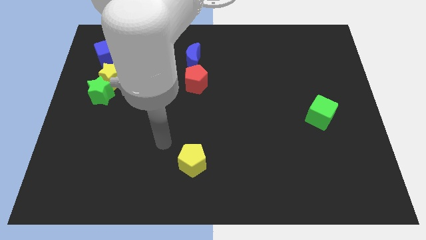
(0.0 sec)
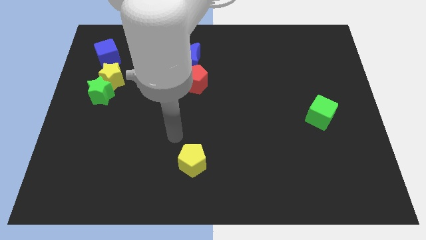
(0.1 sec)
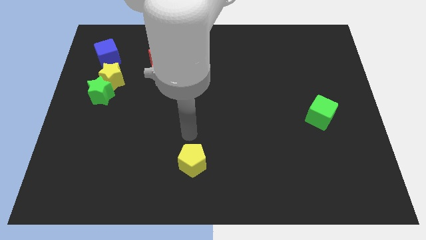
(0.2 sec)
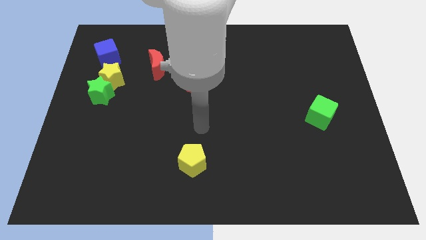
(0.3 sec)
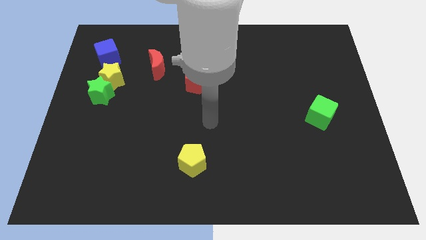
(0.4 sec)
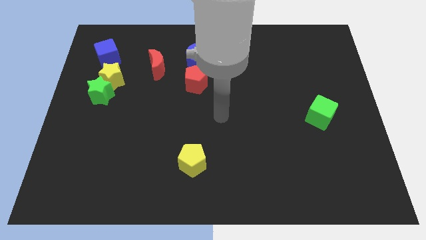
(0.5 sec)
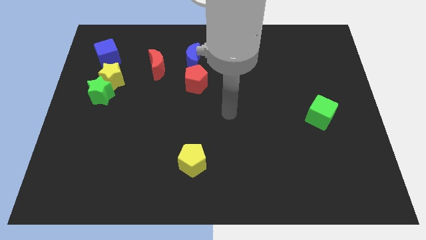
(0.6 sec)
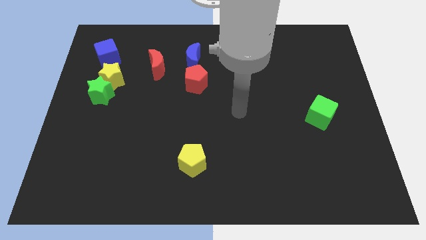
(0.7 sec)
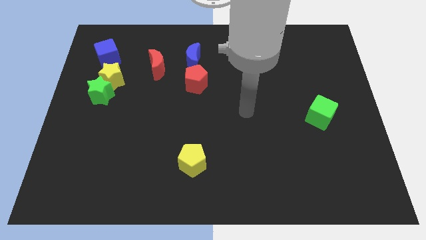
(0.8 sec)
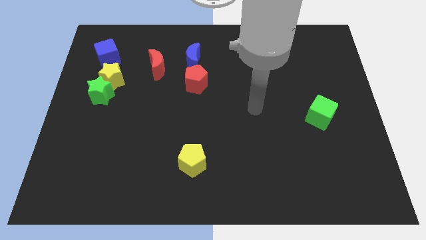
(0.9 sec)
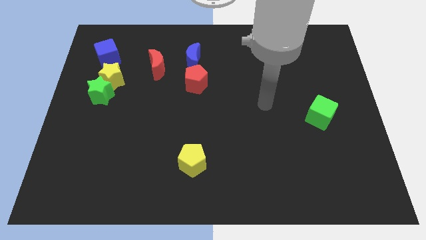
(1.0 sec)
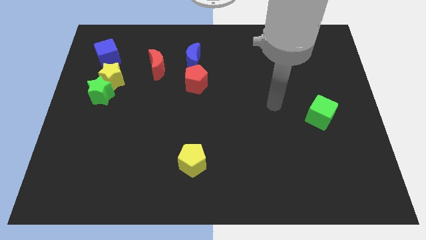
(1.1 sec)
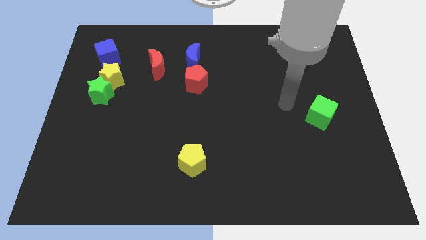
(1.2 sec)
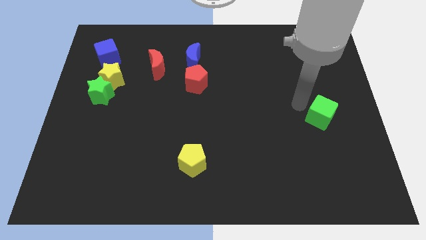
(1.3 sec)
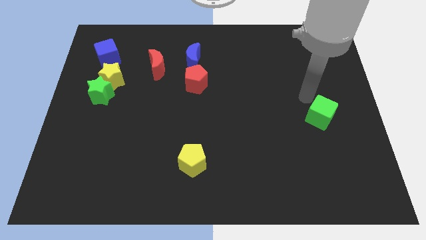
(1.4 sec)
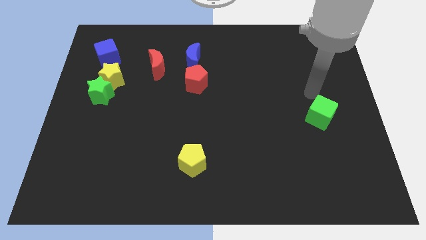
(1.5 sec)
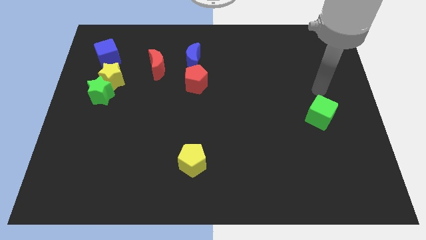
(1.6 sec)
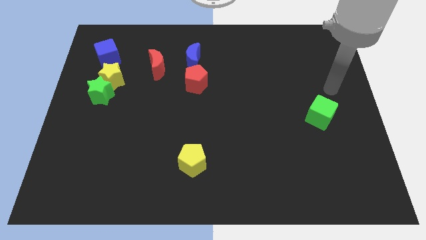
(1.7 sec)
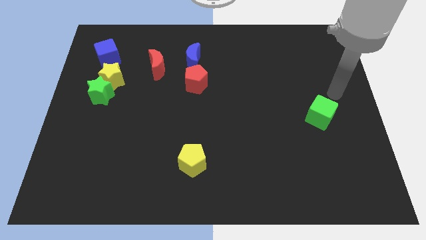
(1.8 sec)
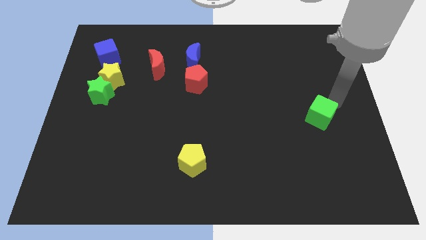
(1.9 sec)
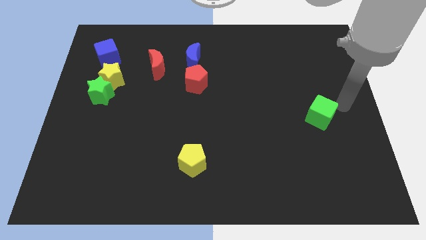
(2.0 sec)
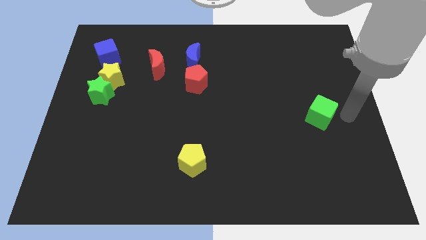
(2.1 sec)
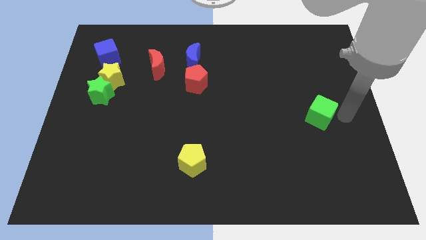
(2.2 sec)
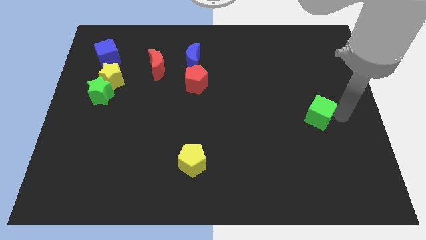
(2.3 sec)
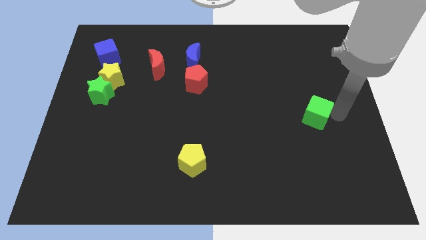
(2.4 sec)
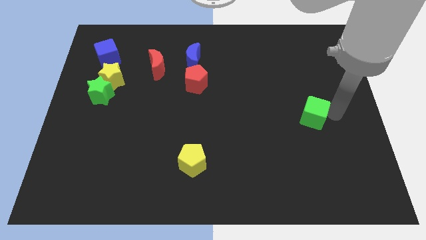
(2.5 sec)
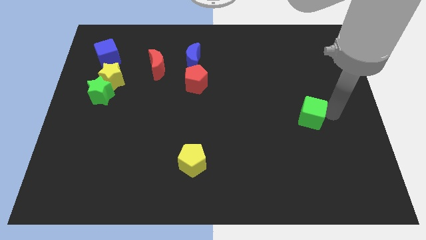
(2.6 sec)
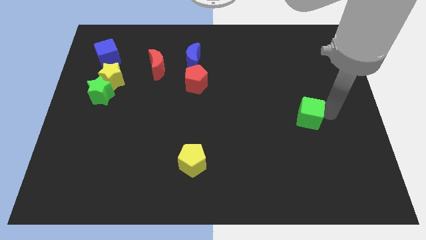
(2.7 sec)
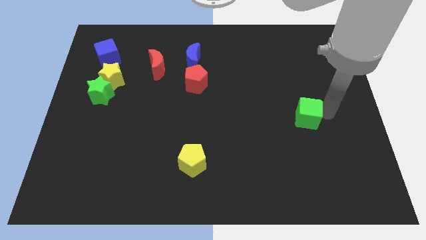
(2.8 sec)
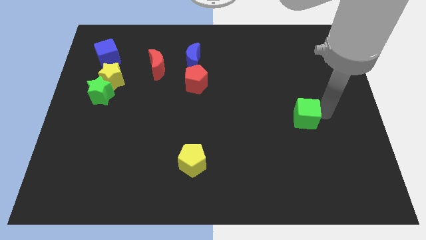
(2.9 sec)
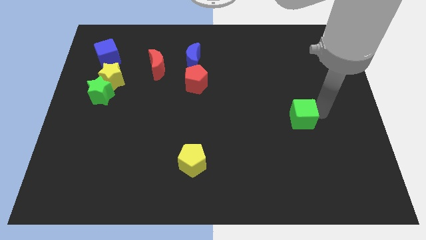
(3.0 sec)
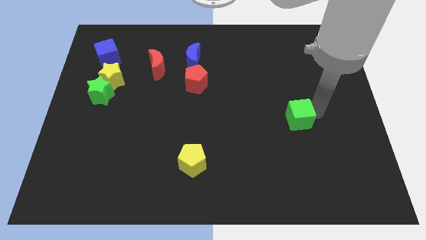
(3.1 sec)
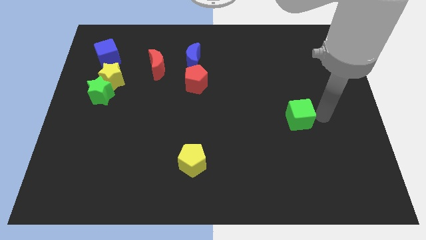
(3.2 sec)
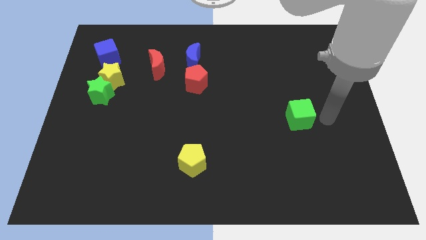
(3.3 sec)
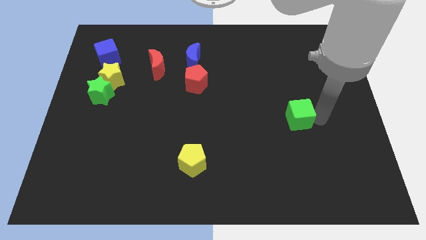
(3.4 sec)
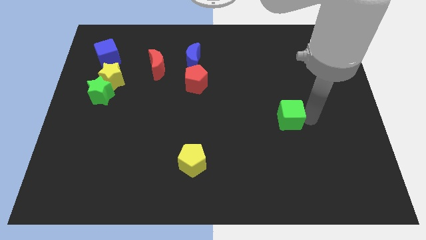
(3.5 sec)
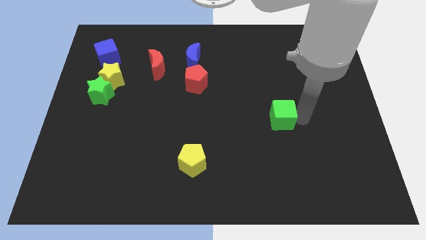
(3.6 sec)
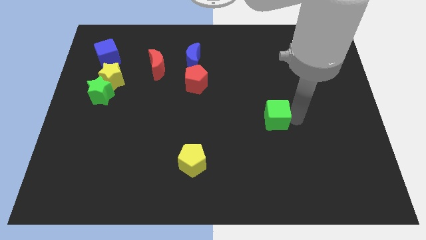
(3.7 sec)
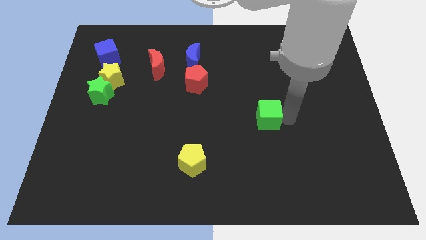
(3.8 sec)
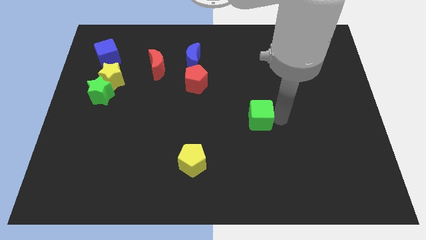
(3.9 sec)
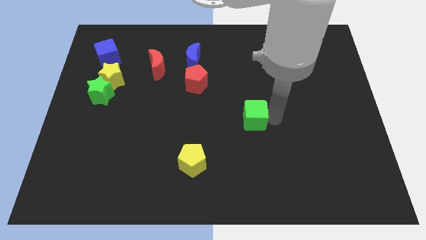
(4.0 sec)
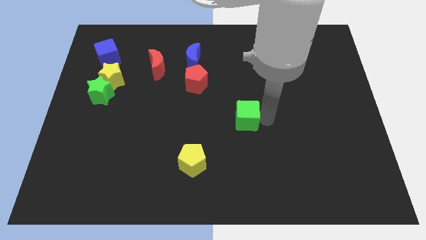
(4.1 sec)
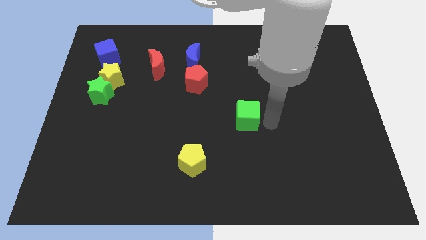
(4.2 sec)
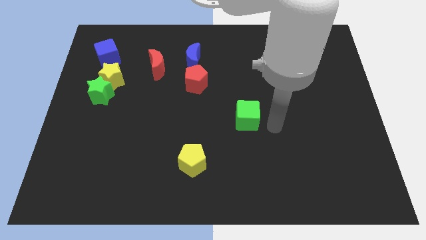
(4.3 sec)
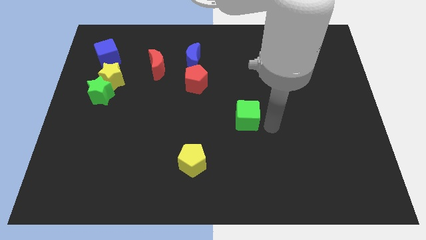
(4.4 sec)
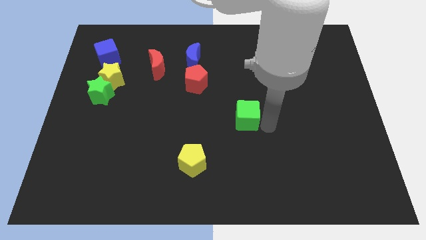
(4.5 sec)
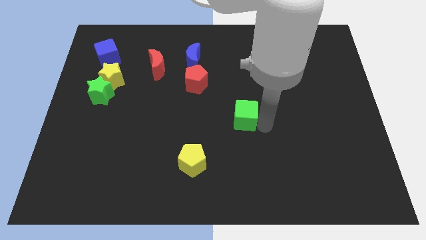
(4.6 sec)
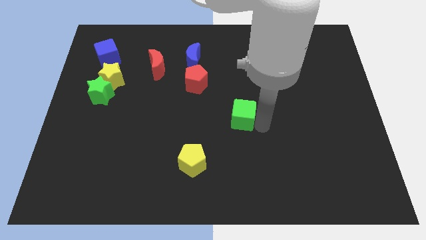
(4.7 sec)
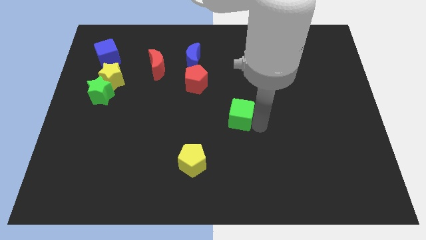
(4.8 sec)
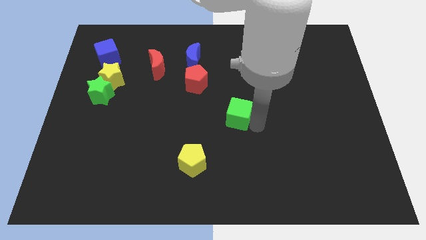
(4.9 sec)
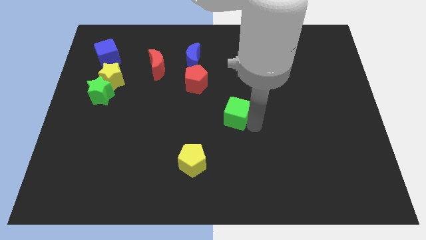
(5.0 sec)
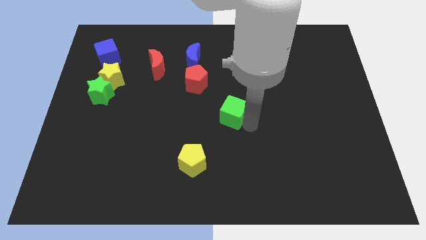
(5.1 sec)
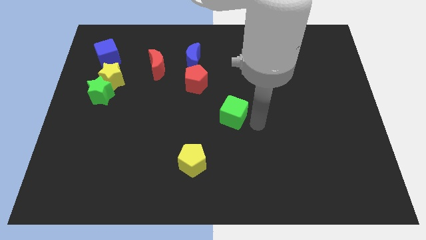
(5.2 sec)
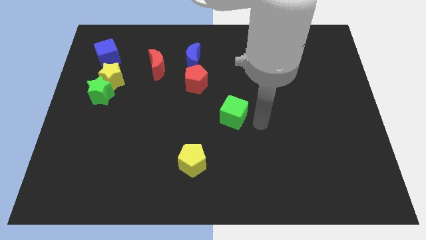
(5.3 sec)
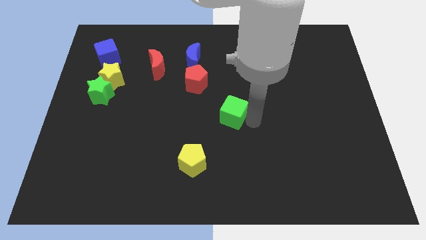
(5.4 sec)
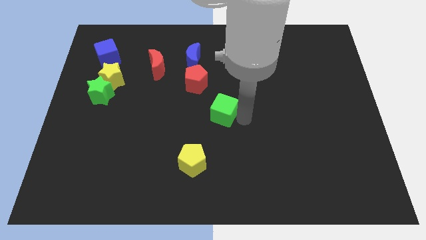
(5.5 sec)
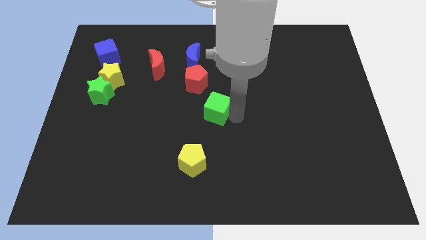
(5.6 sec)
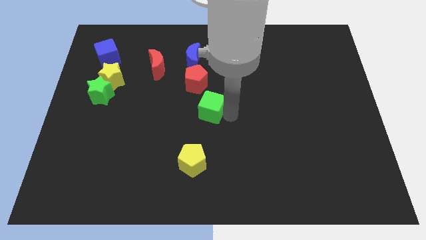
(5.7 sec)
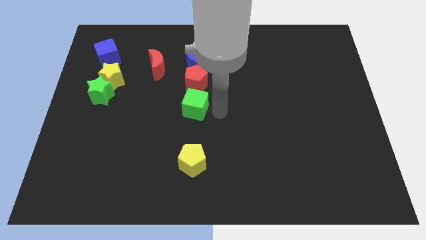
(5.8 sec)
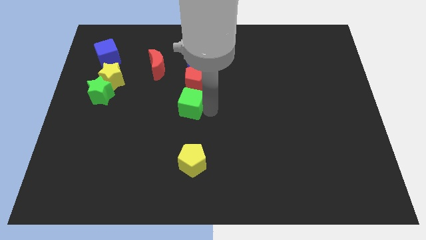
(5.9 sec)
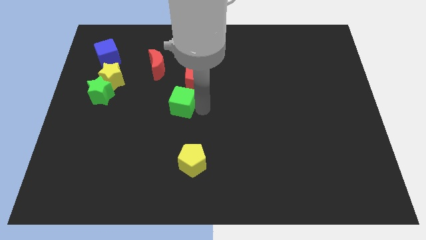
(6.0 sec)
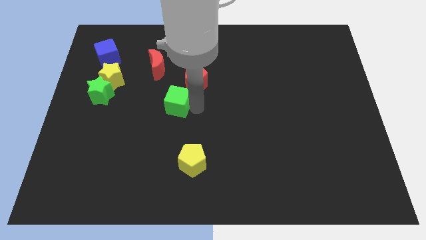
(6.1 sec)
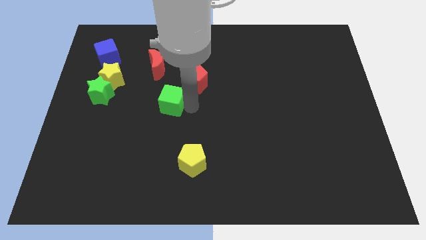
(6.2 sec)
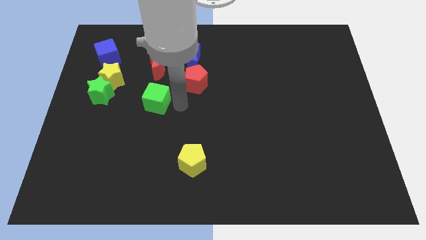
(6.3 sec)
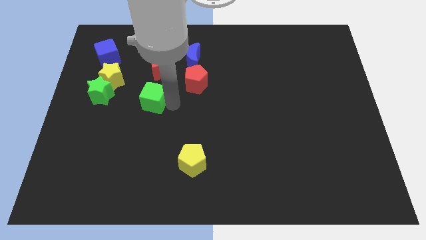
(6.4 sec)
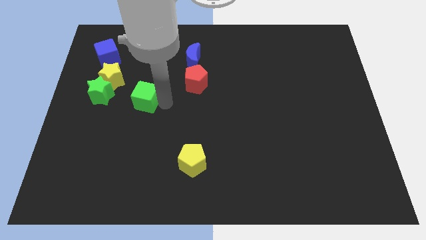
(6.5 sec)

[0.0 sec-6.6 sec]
move the green cube diagonally down and to the right of the yellow star
